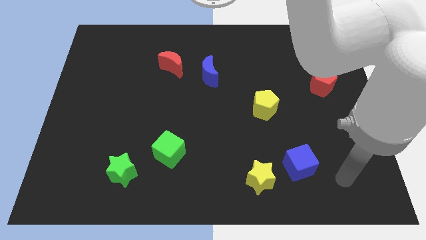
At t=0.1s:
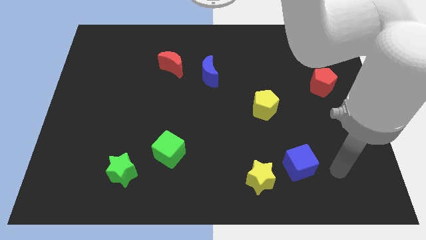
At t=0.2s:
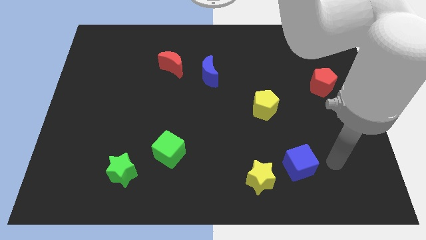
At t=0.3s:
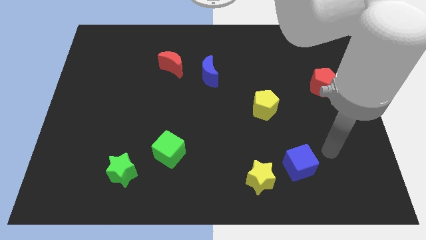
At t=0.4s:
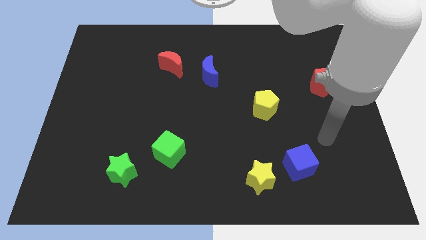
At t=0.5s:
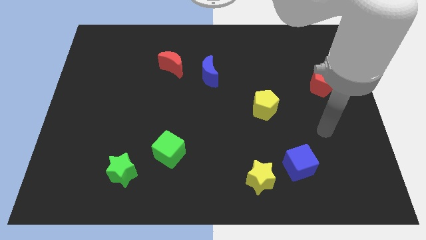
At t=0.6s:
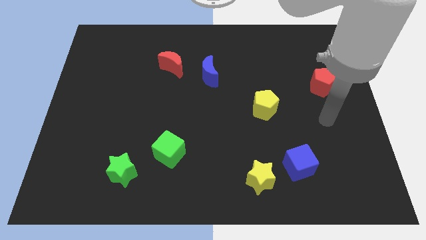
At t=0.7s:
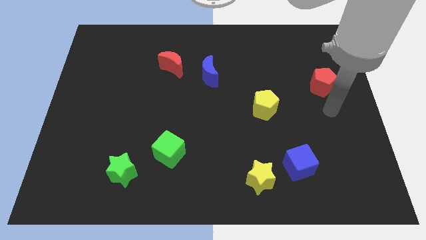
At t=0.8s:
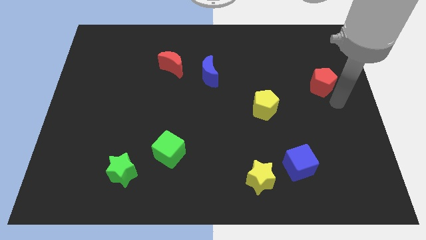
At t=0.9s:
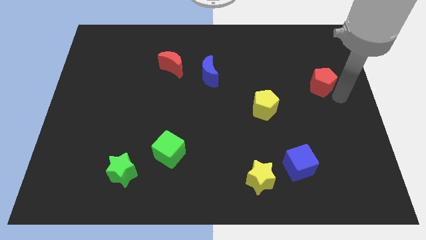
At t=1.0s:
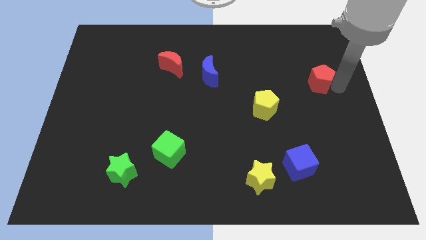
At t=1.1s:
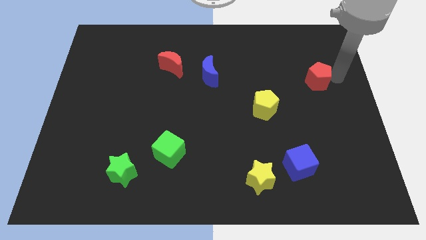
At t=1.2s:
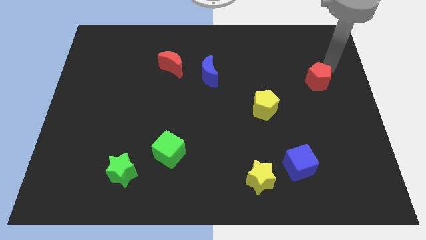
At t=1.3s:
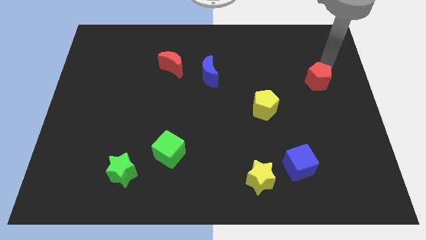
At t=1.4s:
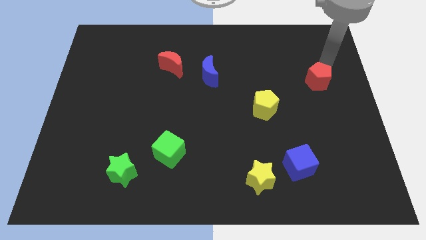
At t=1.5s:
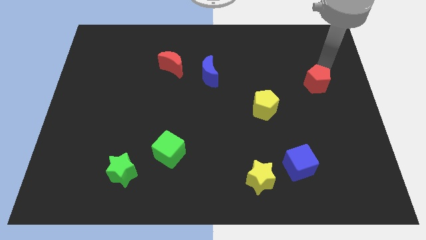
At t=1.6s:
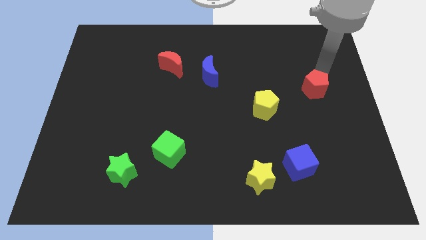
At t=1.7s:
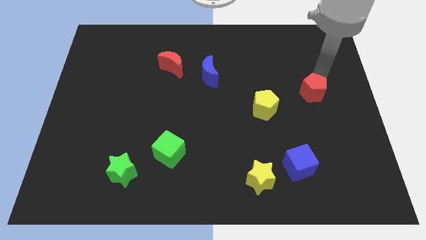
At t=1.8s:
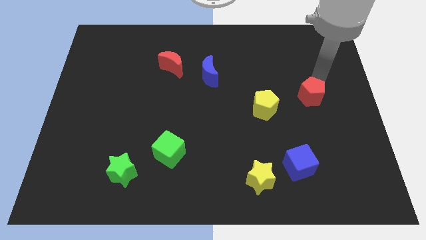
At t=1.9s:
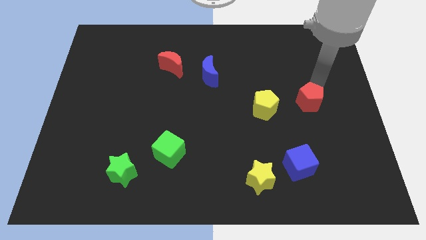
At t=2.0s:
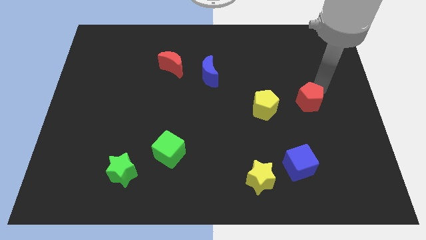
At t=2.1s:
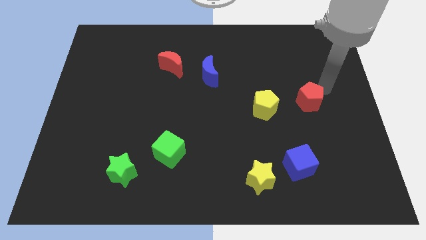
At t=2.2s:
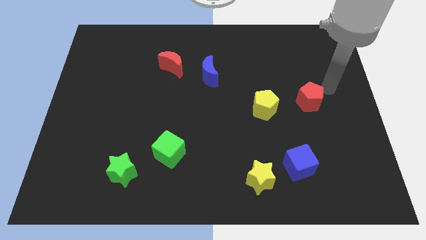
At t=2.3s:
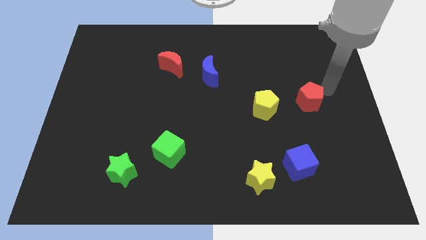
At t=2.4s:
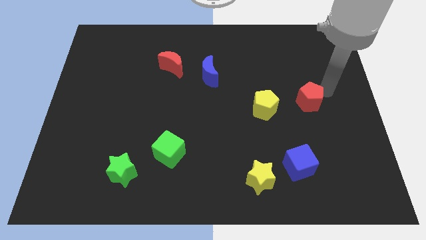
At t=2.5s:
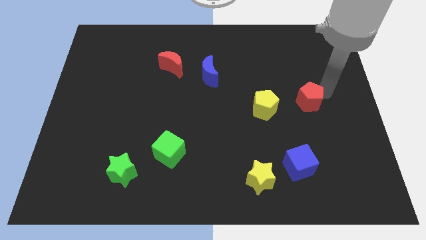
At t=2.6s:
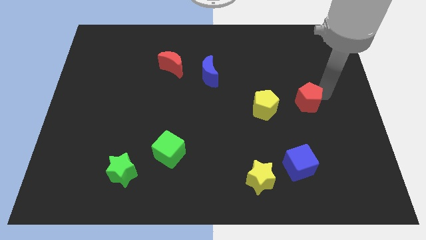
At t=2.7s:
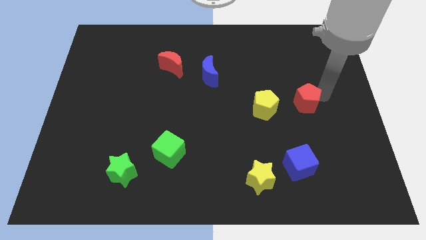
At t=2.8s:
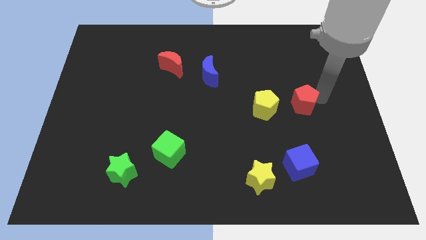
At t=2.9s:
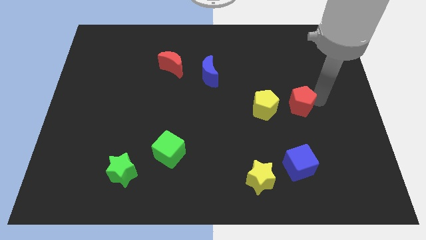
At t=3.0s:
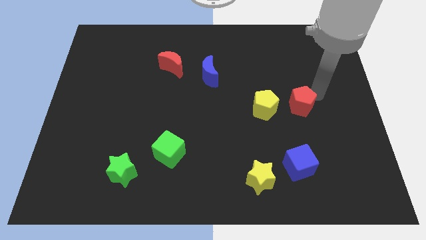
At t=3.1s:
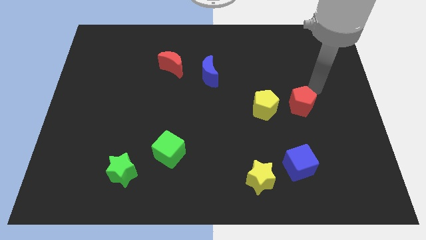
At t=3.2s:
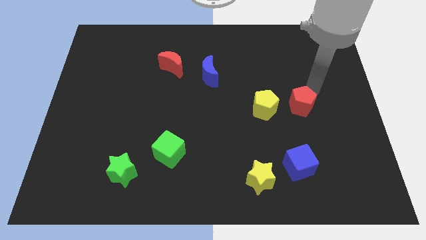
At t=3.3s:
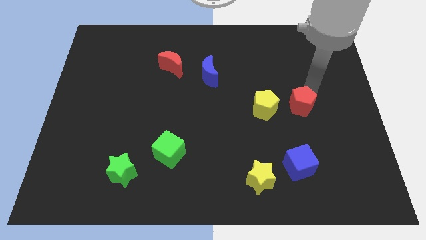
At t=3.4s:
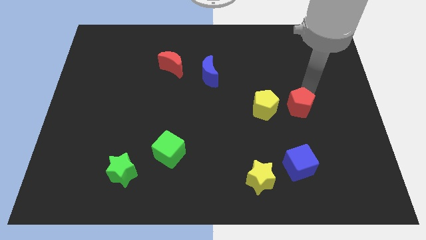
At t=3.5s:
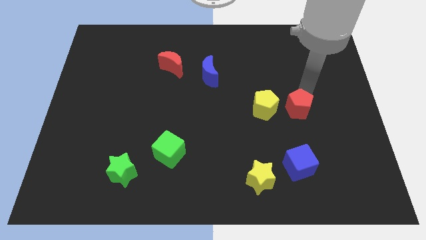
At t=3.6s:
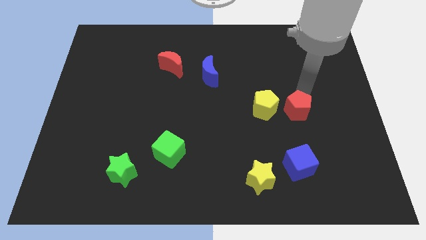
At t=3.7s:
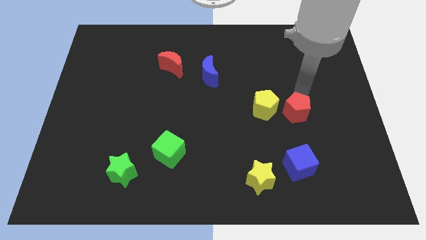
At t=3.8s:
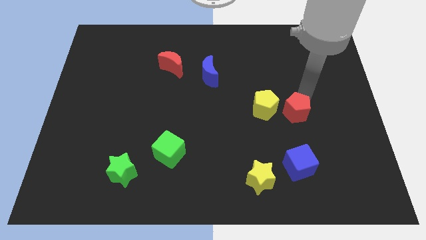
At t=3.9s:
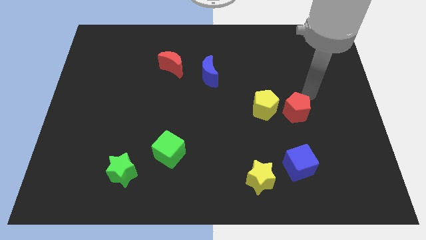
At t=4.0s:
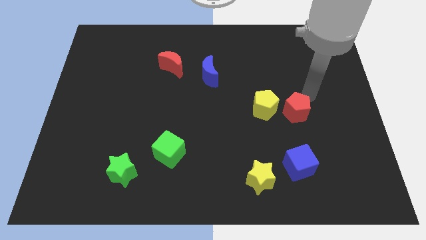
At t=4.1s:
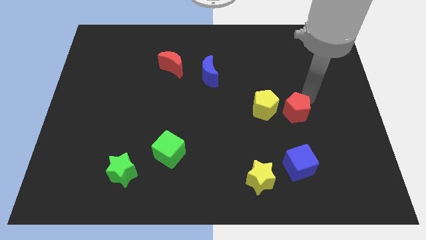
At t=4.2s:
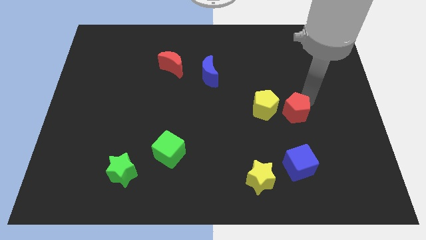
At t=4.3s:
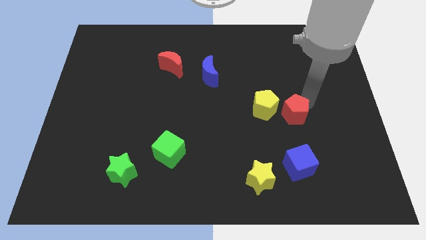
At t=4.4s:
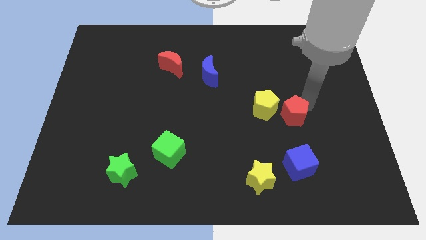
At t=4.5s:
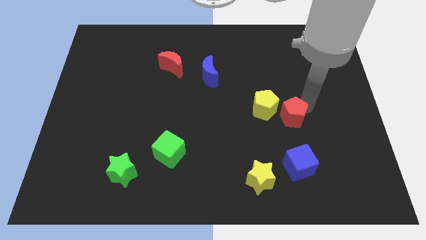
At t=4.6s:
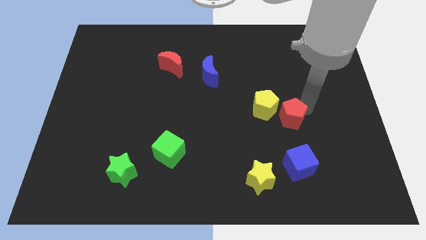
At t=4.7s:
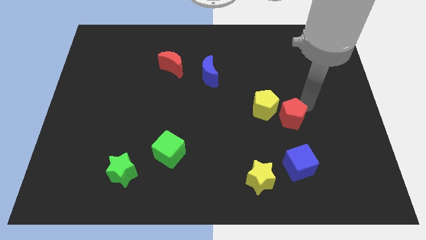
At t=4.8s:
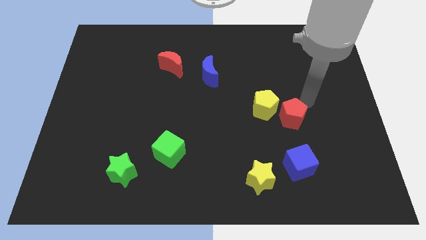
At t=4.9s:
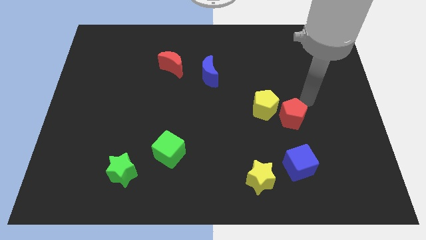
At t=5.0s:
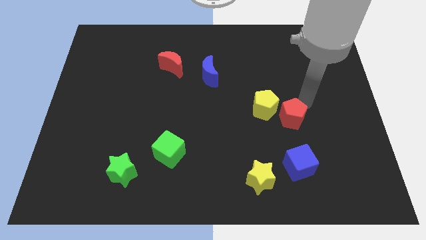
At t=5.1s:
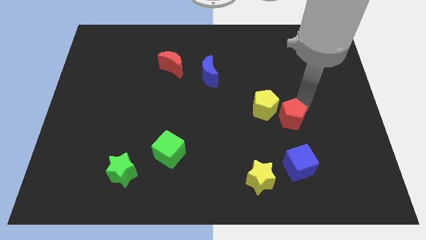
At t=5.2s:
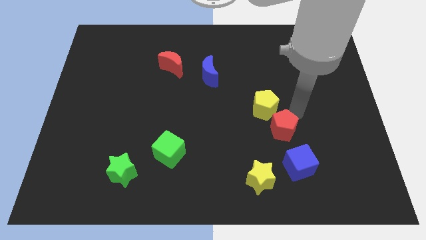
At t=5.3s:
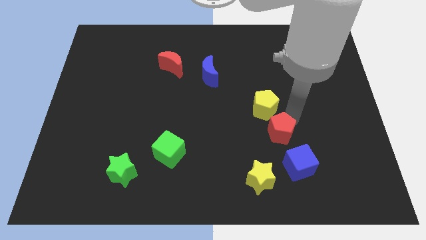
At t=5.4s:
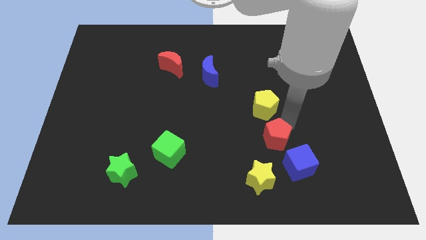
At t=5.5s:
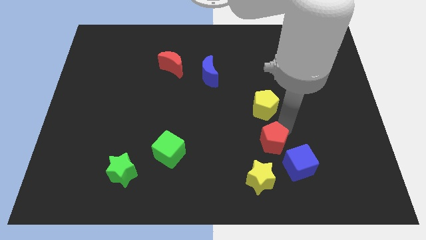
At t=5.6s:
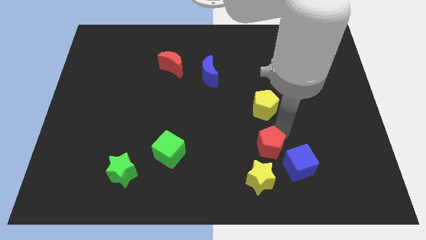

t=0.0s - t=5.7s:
put the red pentagon left of the blue cube

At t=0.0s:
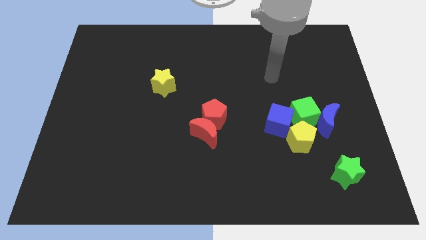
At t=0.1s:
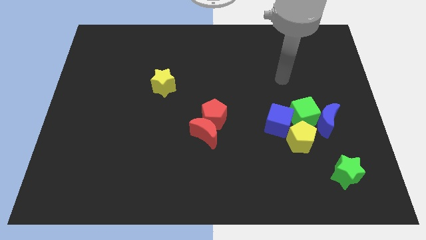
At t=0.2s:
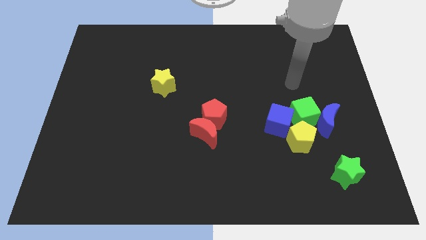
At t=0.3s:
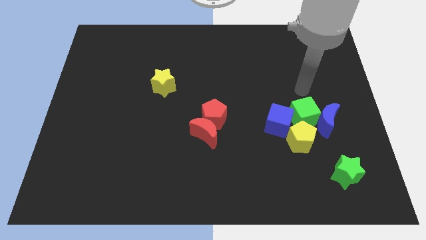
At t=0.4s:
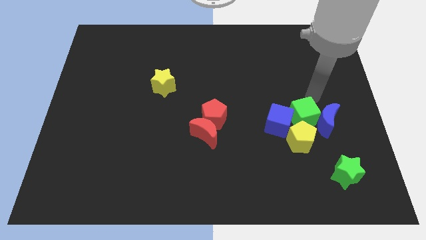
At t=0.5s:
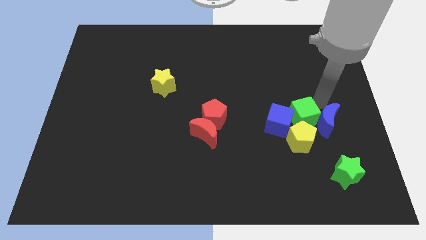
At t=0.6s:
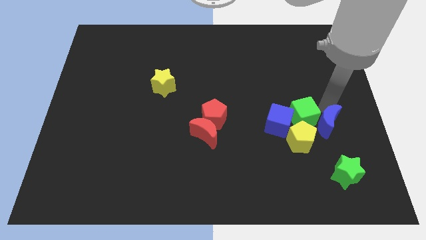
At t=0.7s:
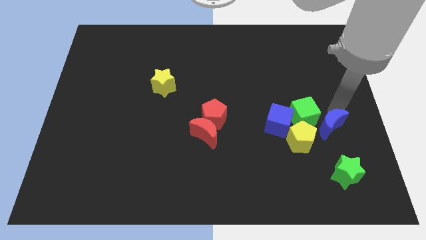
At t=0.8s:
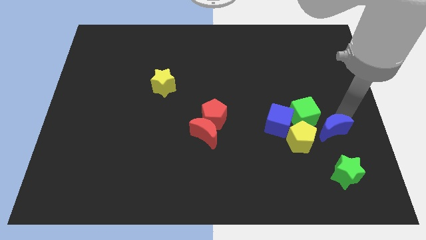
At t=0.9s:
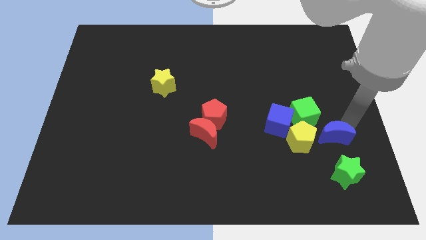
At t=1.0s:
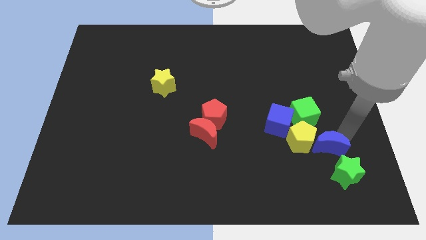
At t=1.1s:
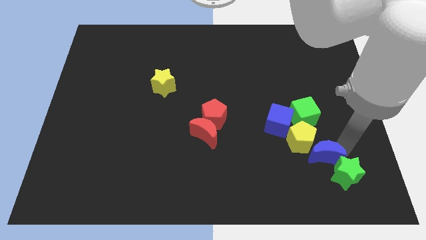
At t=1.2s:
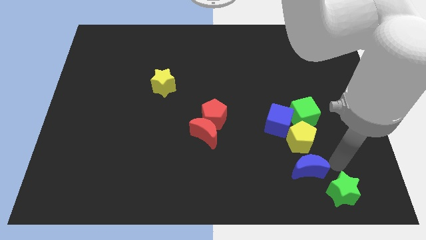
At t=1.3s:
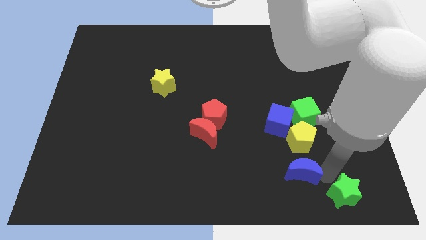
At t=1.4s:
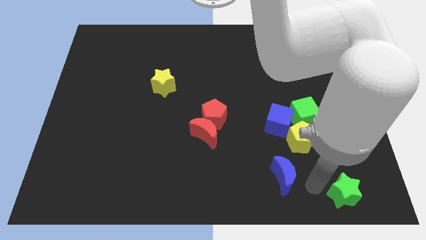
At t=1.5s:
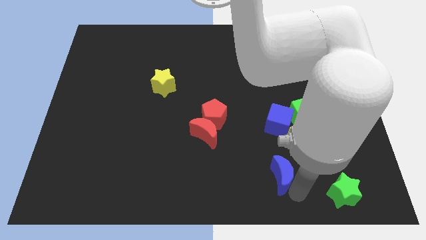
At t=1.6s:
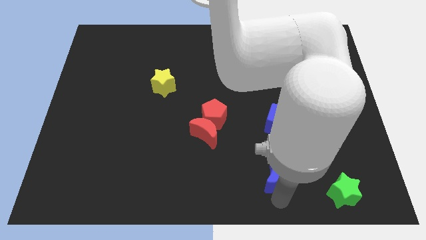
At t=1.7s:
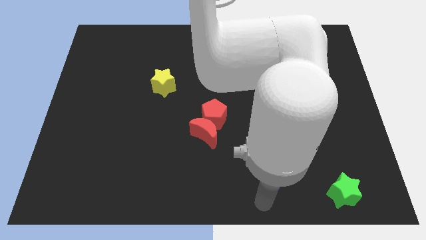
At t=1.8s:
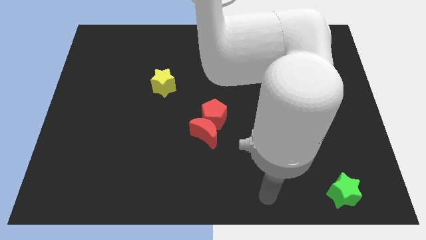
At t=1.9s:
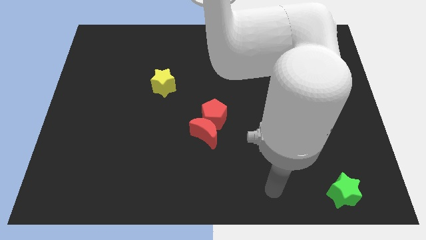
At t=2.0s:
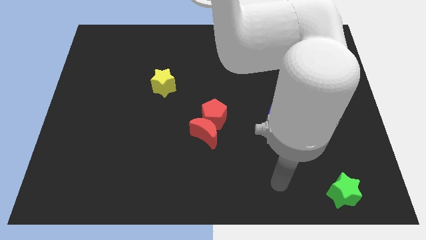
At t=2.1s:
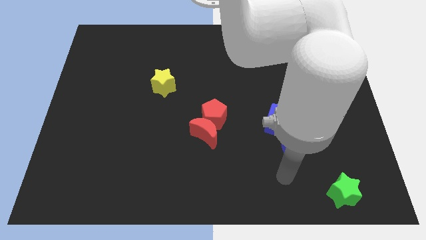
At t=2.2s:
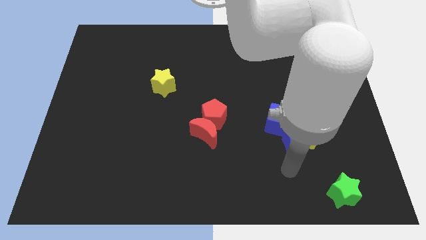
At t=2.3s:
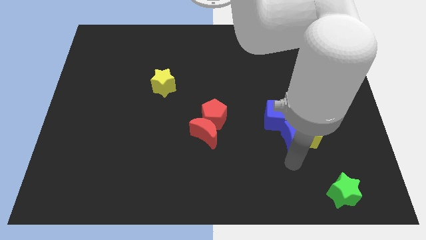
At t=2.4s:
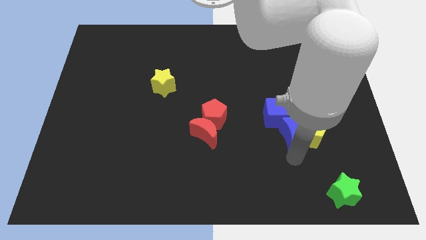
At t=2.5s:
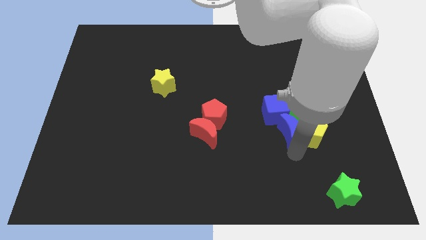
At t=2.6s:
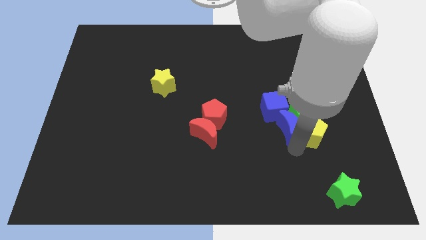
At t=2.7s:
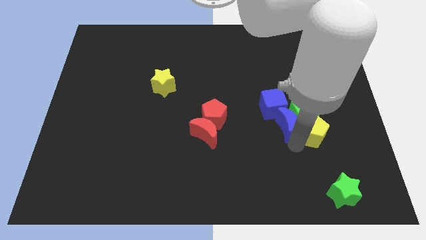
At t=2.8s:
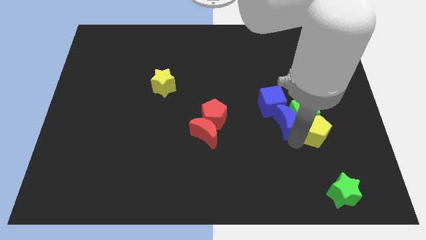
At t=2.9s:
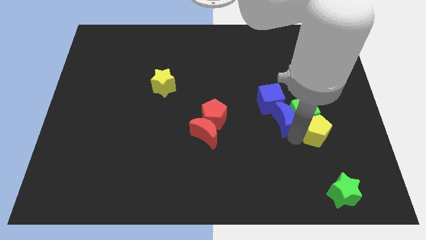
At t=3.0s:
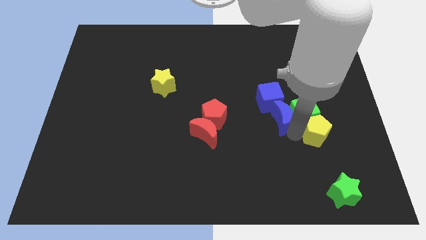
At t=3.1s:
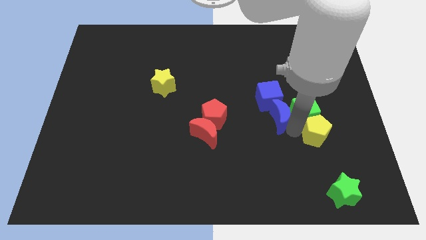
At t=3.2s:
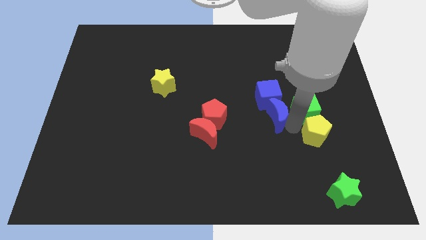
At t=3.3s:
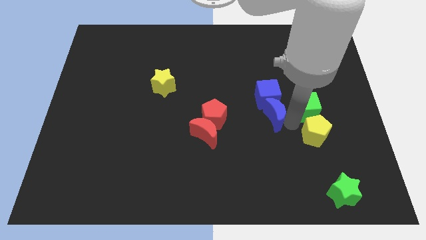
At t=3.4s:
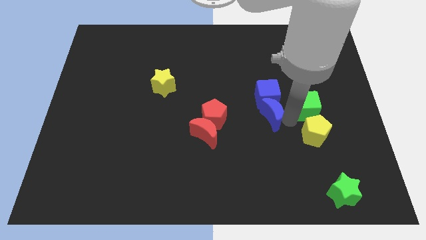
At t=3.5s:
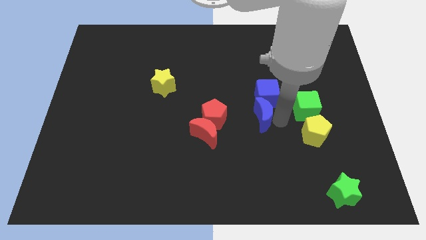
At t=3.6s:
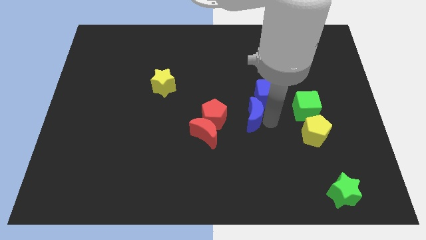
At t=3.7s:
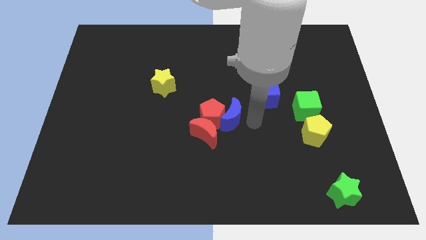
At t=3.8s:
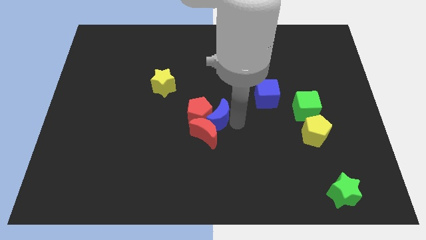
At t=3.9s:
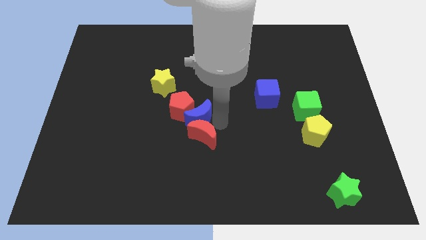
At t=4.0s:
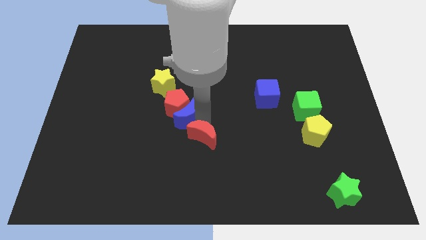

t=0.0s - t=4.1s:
push the blue moon to the bottom right of the yellow star
